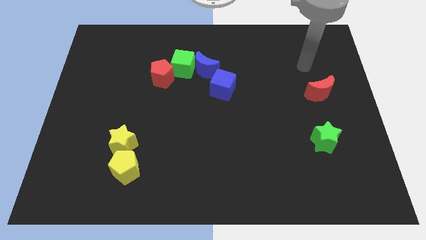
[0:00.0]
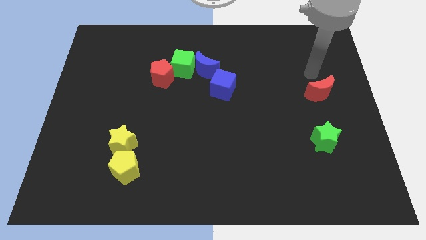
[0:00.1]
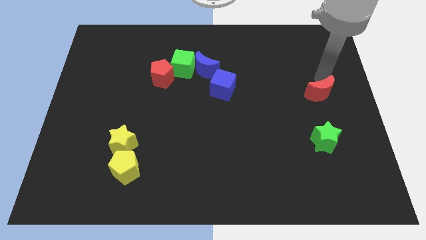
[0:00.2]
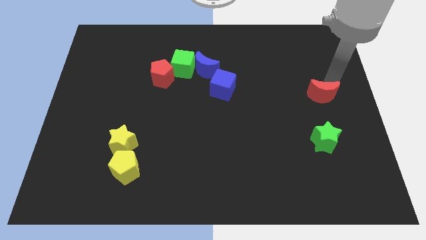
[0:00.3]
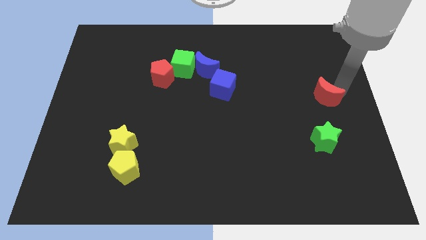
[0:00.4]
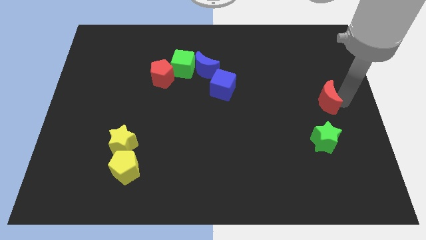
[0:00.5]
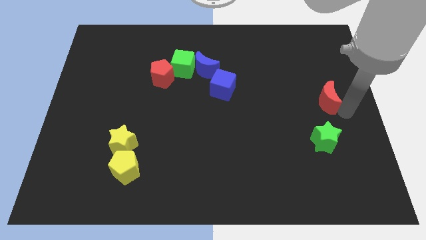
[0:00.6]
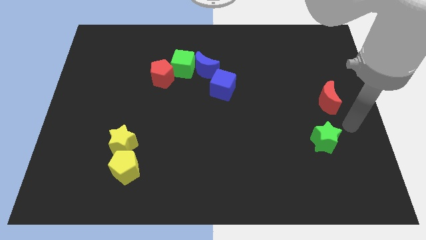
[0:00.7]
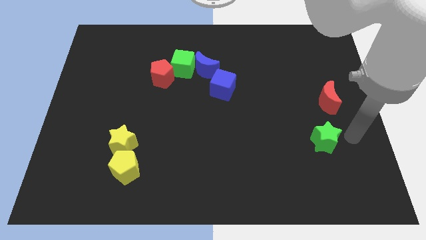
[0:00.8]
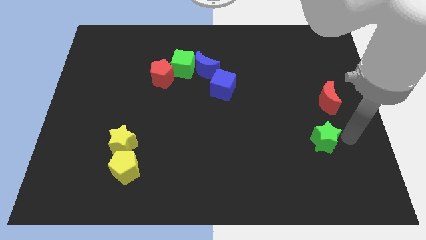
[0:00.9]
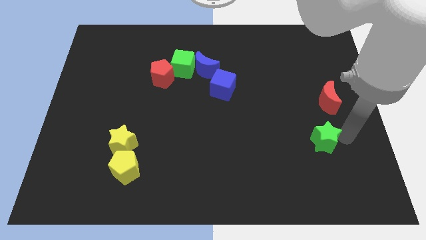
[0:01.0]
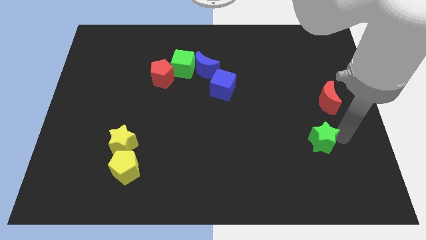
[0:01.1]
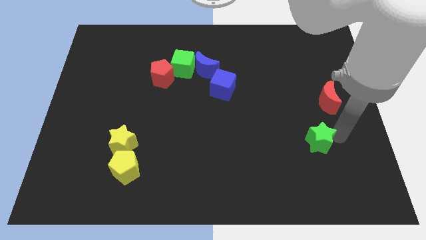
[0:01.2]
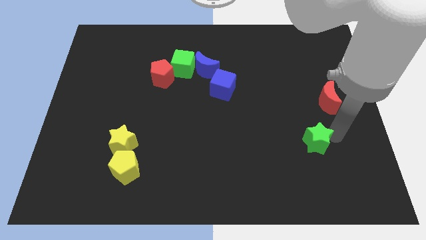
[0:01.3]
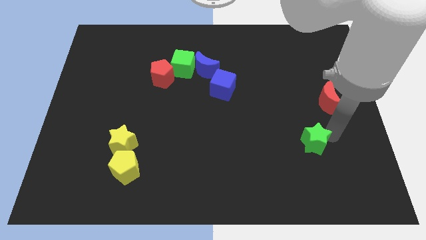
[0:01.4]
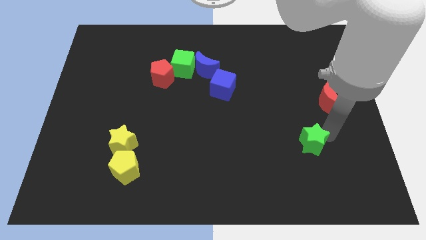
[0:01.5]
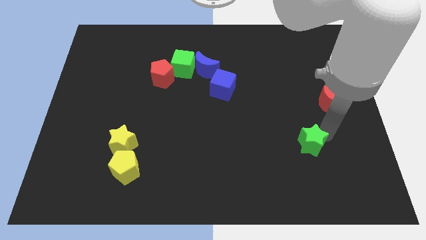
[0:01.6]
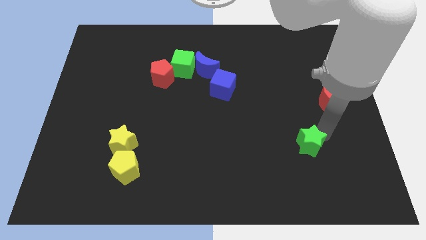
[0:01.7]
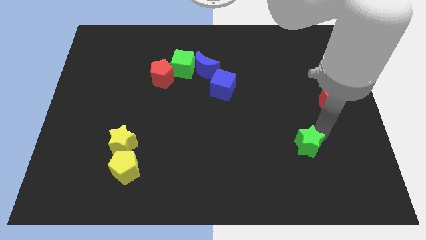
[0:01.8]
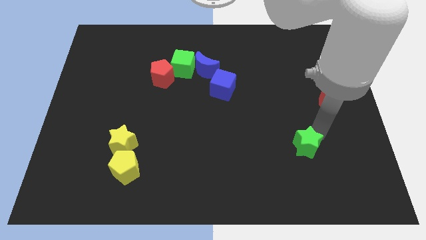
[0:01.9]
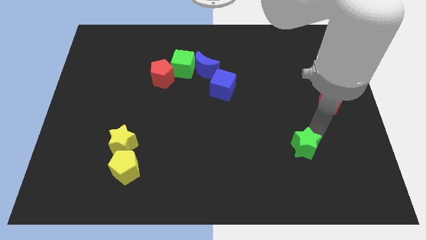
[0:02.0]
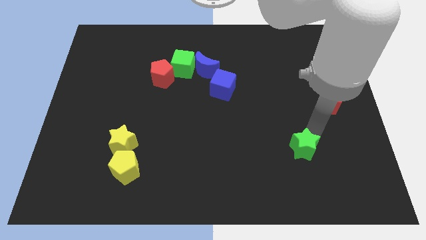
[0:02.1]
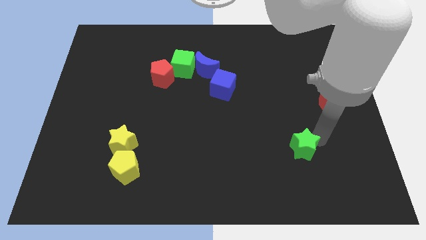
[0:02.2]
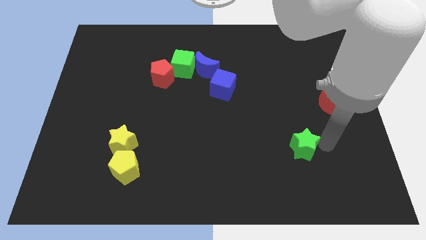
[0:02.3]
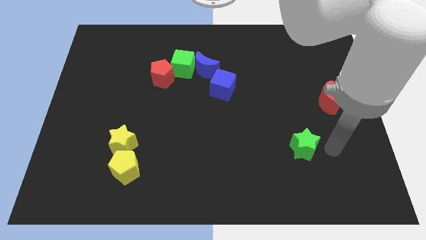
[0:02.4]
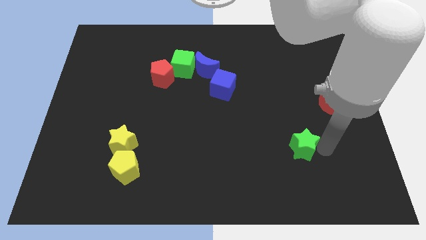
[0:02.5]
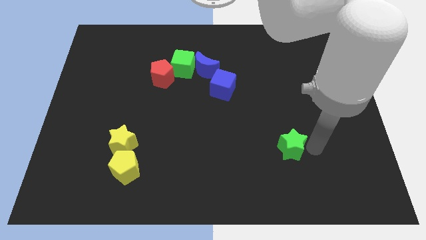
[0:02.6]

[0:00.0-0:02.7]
push the green star to the left somewhat

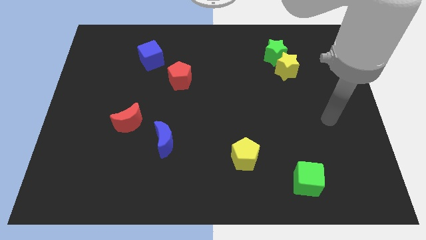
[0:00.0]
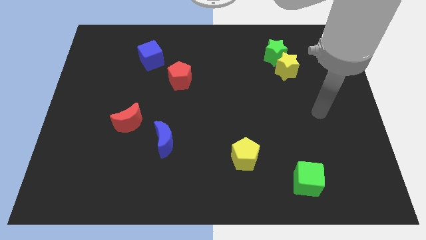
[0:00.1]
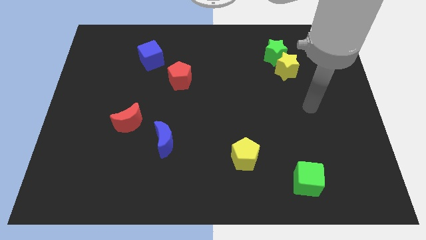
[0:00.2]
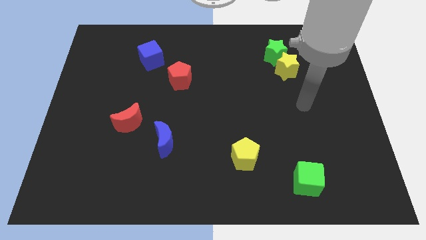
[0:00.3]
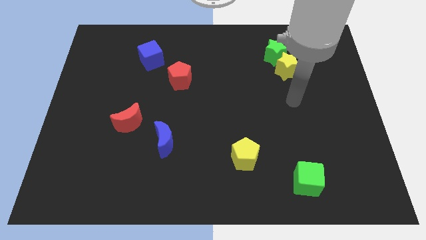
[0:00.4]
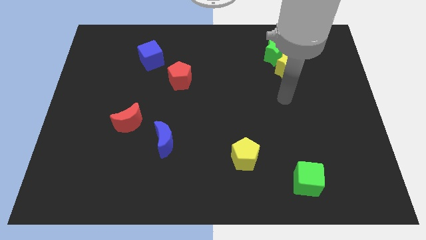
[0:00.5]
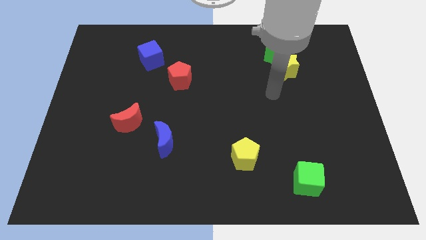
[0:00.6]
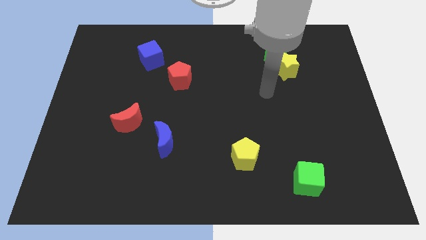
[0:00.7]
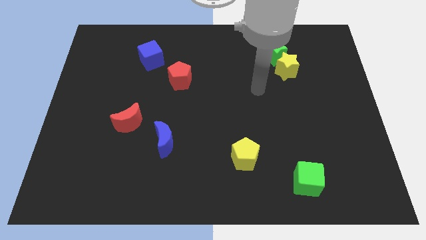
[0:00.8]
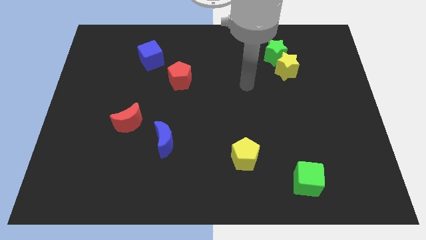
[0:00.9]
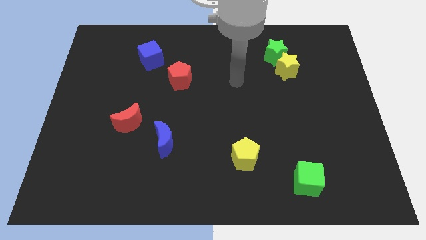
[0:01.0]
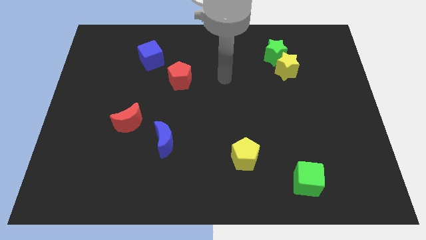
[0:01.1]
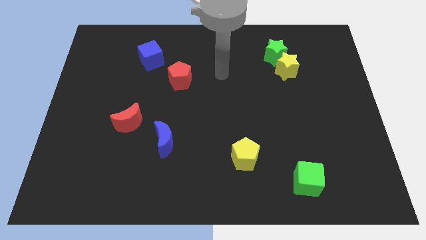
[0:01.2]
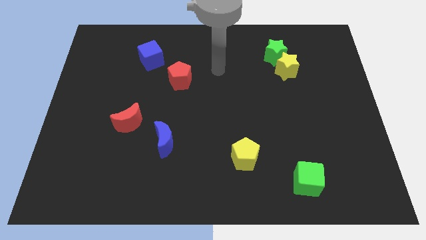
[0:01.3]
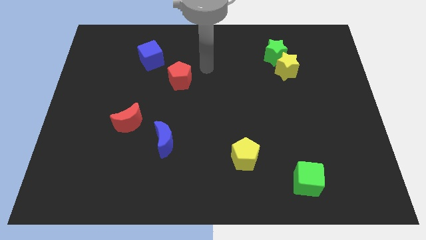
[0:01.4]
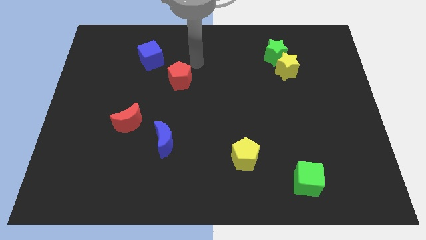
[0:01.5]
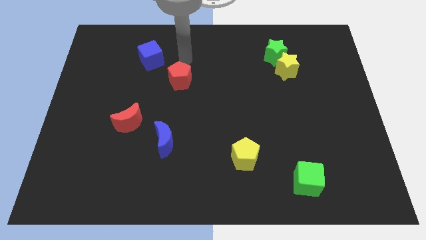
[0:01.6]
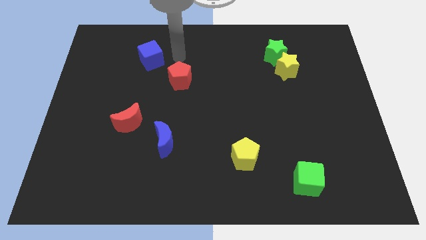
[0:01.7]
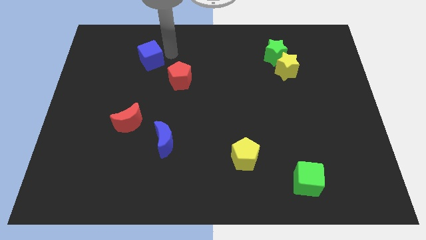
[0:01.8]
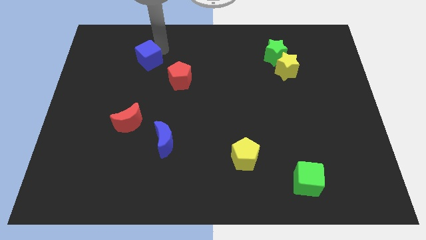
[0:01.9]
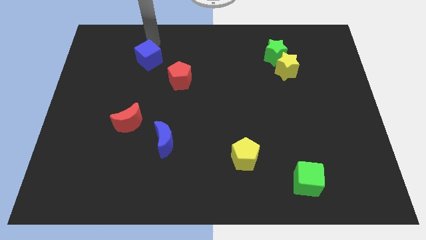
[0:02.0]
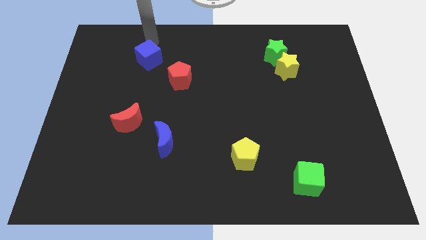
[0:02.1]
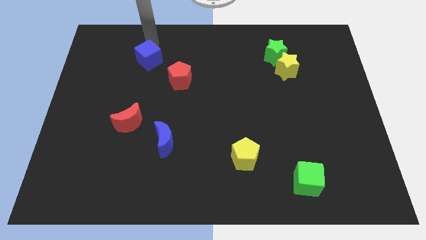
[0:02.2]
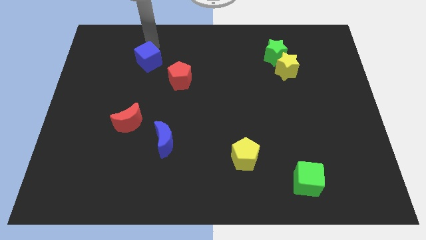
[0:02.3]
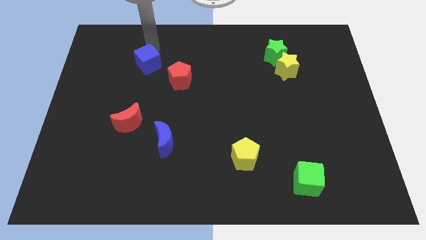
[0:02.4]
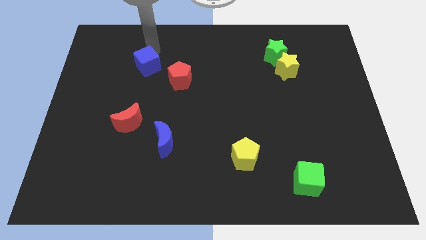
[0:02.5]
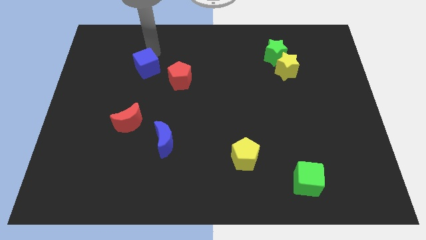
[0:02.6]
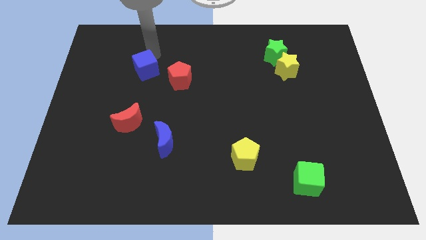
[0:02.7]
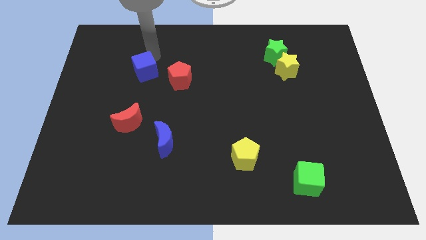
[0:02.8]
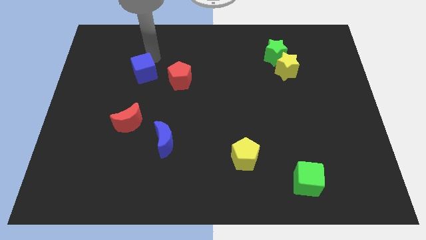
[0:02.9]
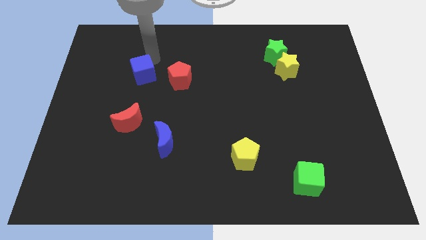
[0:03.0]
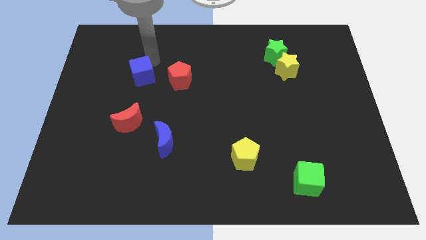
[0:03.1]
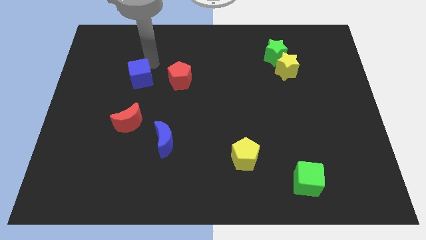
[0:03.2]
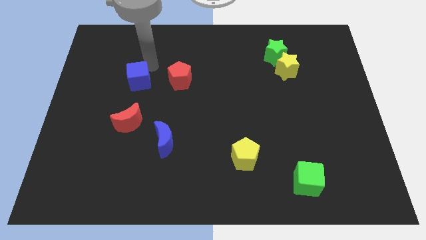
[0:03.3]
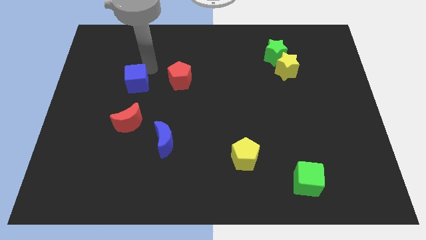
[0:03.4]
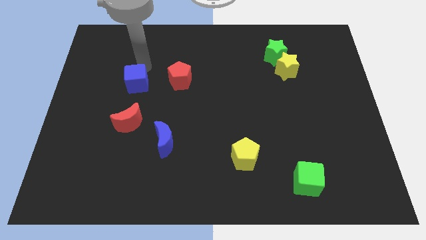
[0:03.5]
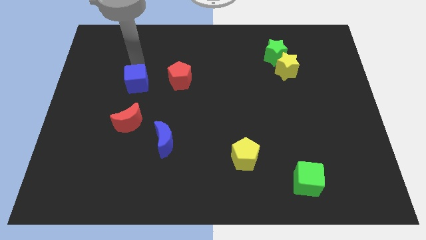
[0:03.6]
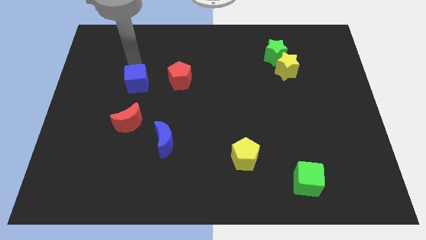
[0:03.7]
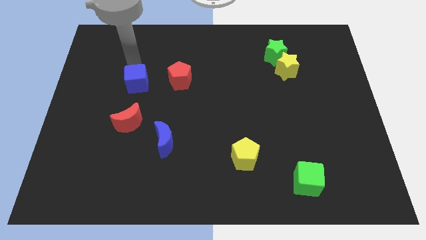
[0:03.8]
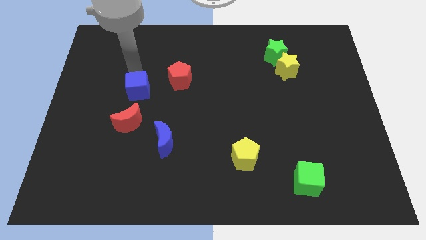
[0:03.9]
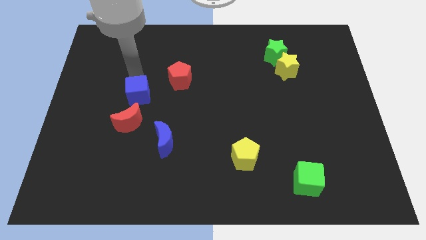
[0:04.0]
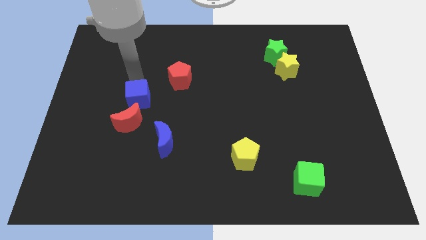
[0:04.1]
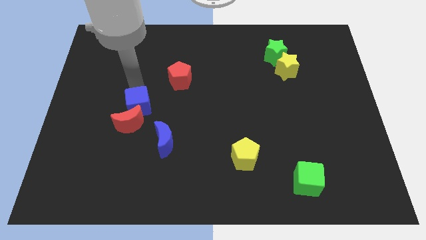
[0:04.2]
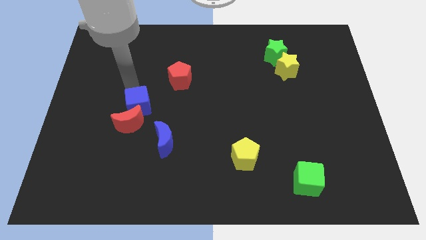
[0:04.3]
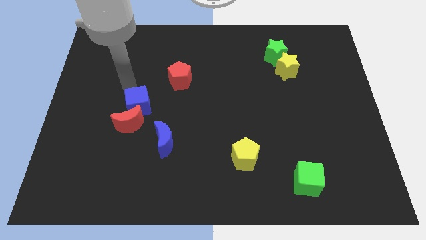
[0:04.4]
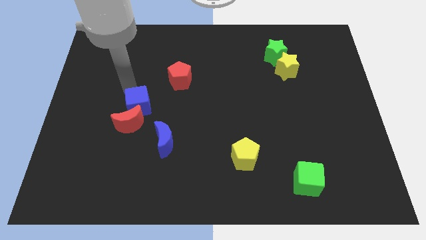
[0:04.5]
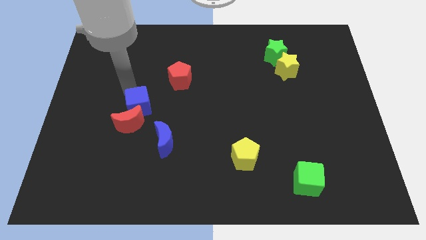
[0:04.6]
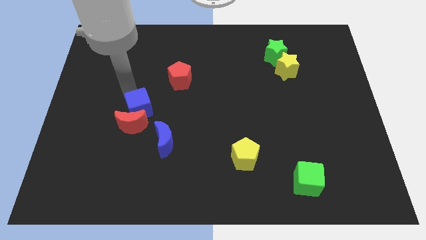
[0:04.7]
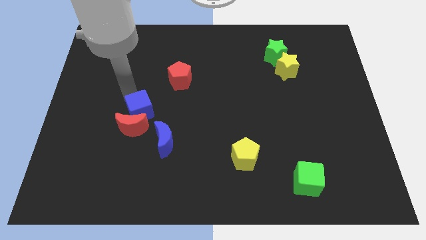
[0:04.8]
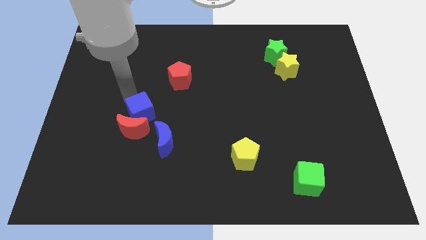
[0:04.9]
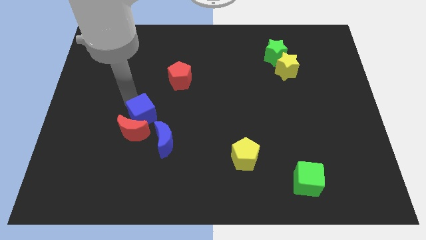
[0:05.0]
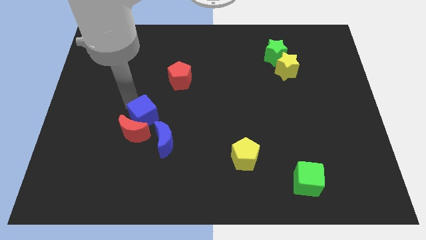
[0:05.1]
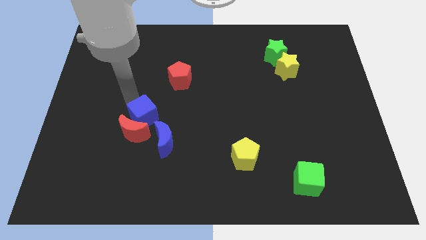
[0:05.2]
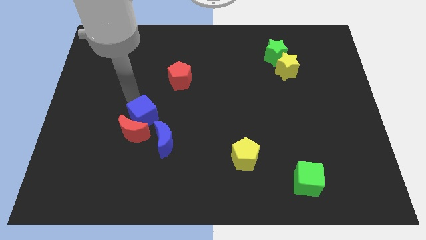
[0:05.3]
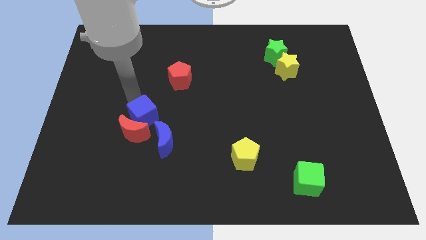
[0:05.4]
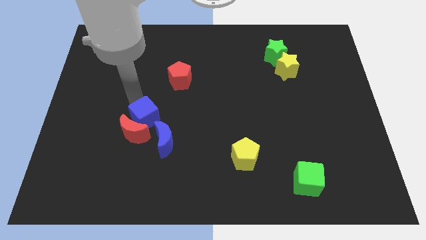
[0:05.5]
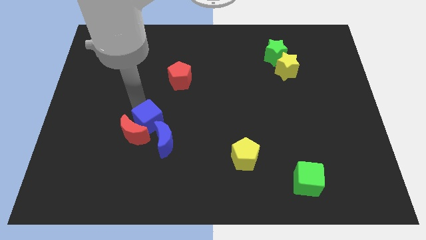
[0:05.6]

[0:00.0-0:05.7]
move the blue cube downwards
